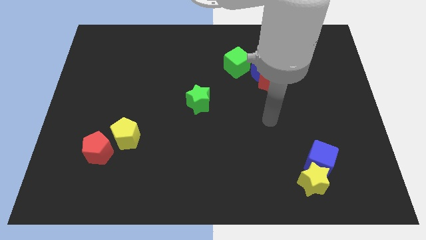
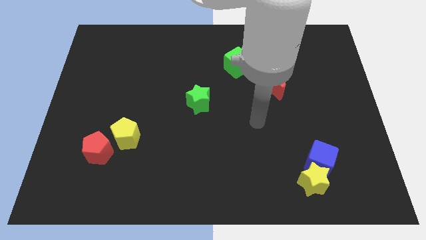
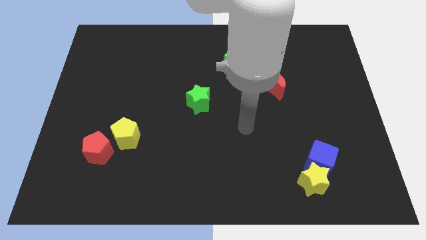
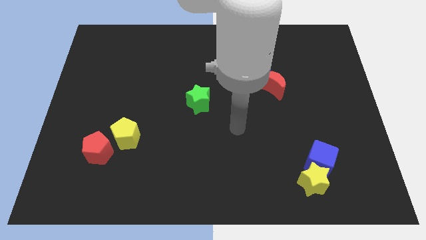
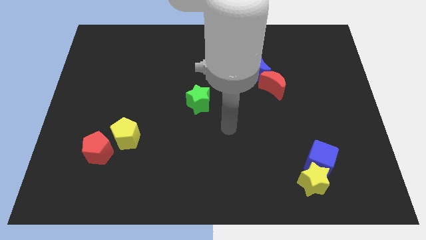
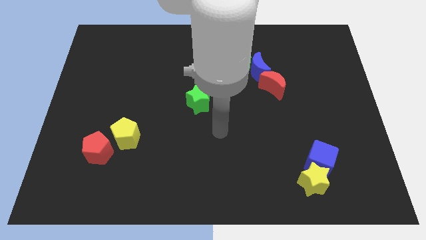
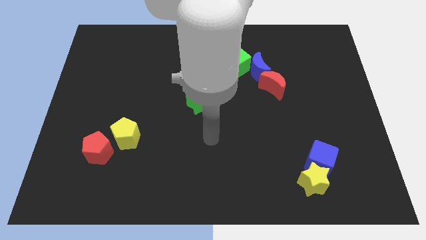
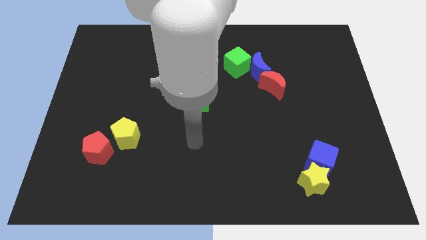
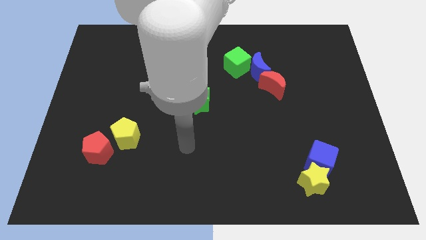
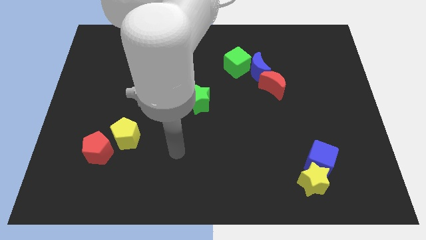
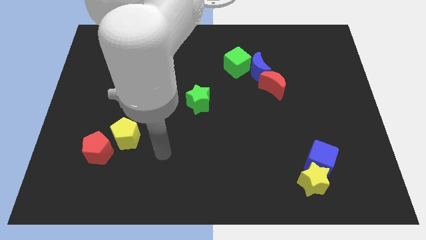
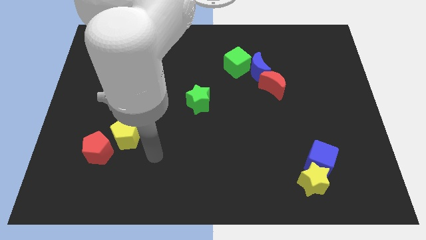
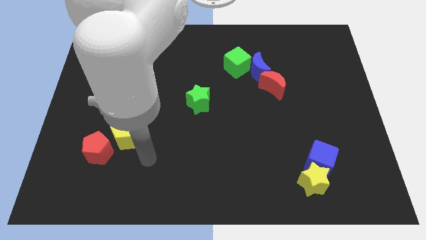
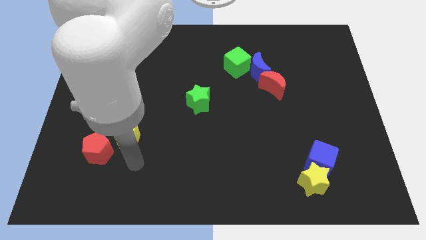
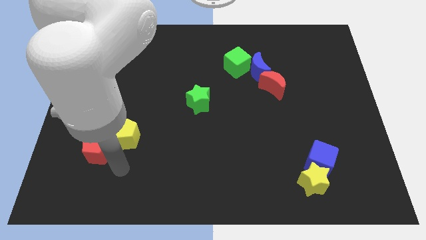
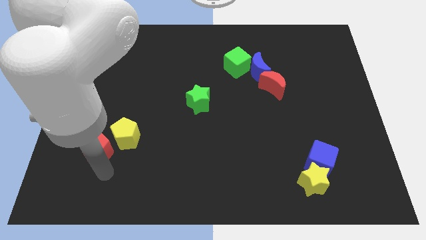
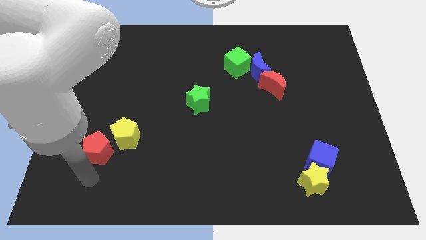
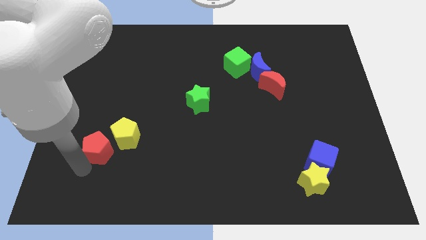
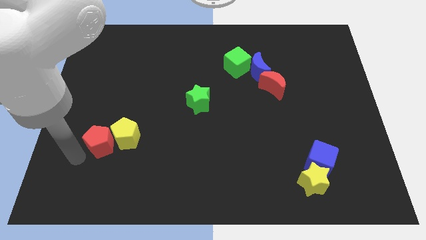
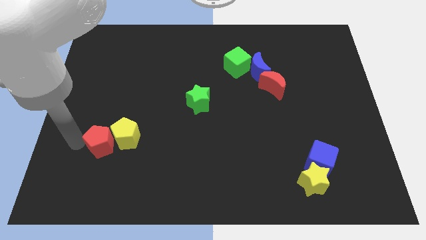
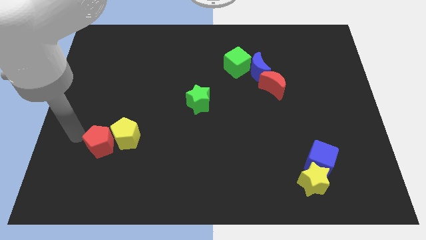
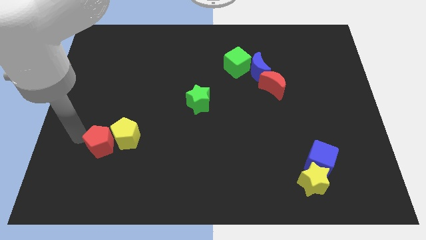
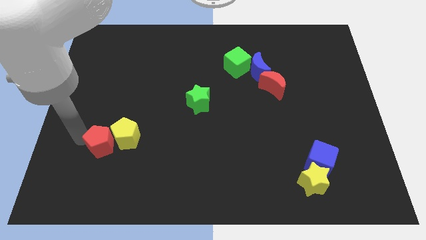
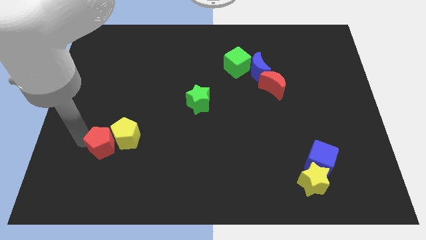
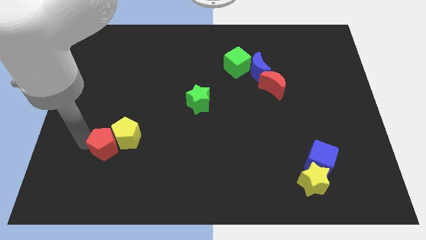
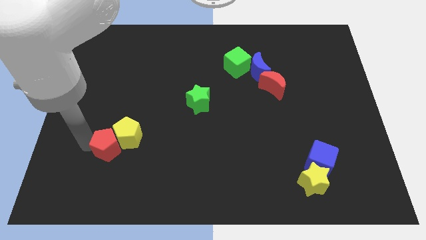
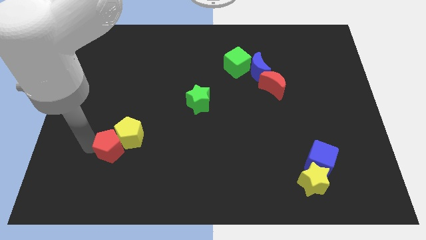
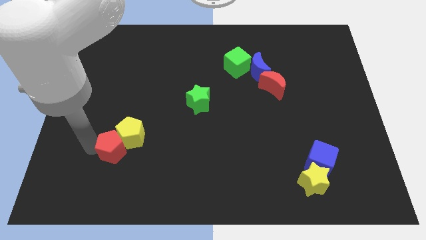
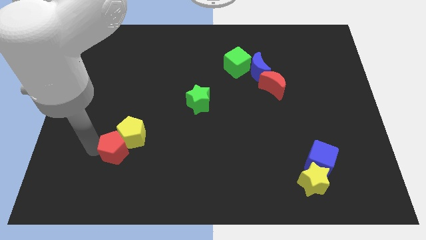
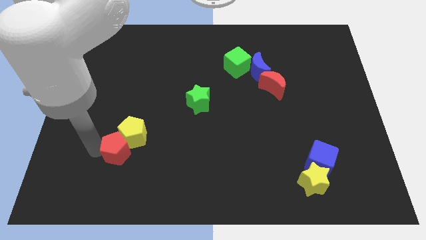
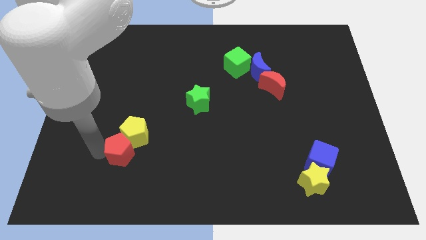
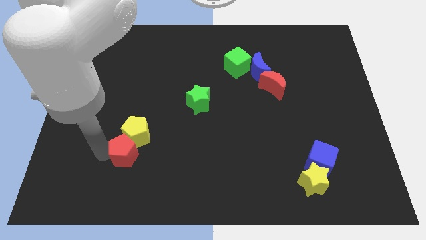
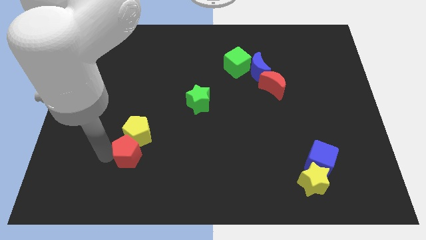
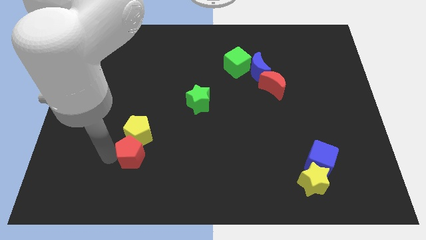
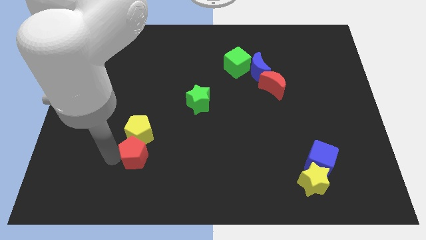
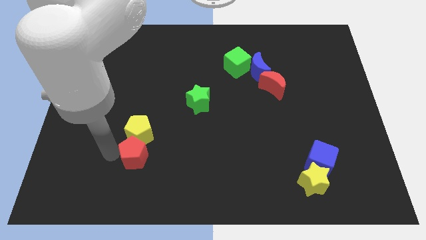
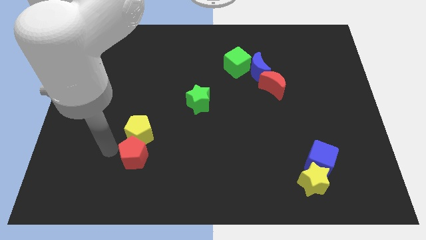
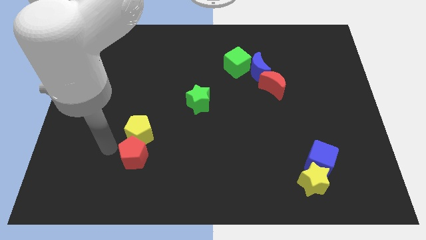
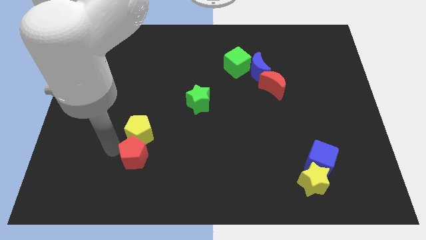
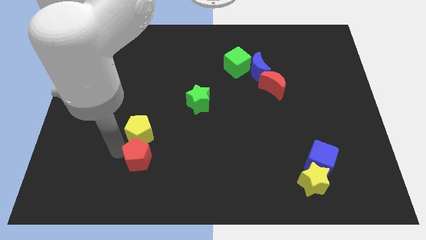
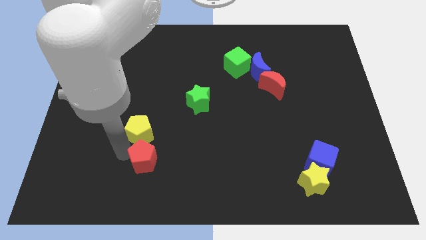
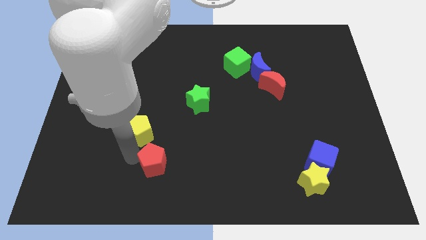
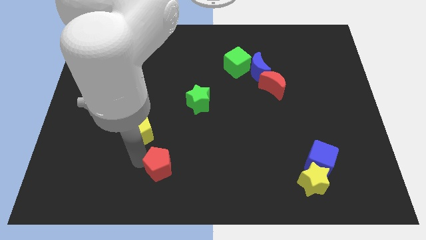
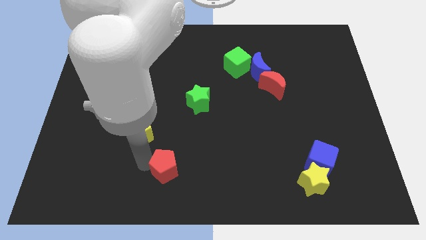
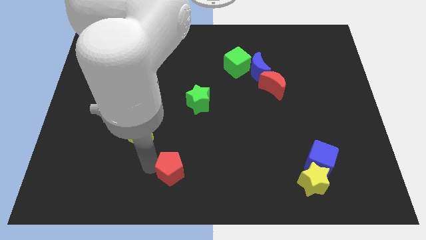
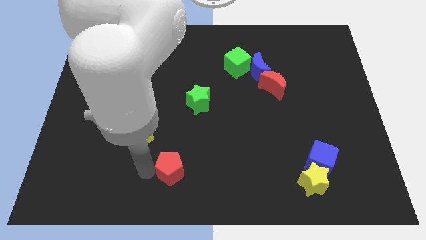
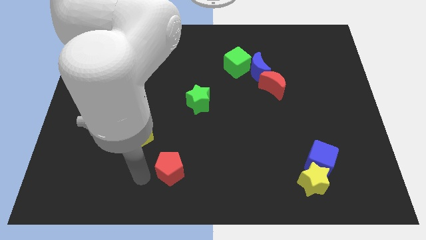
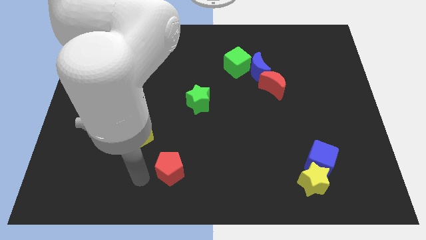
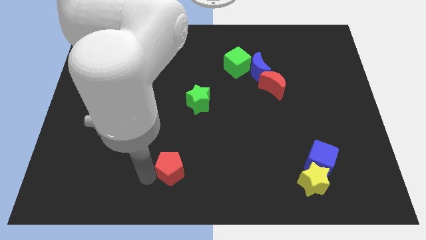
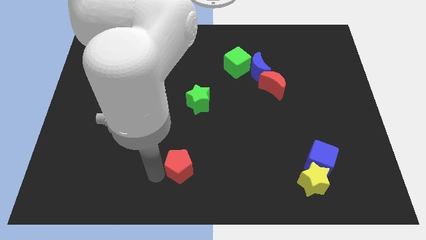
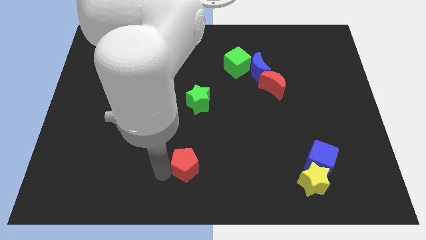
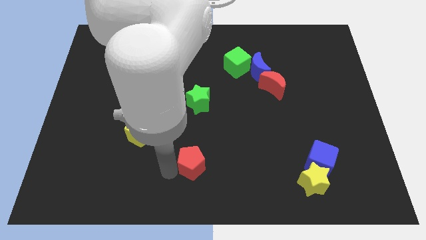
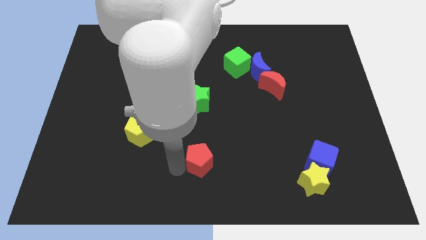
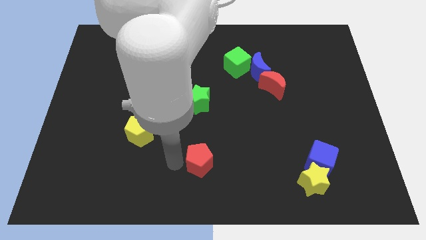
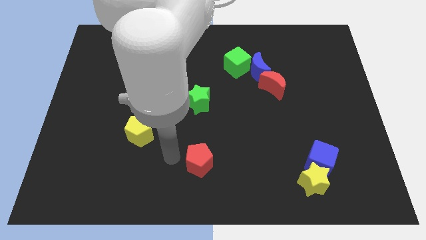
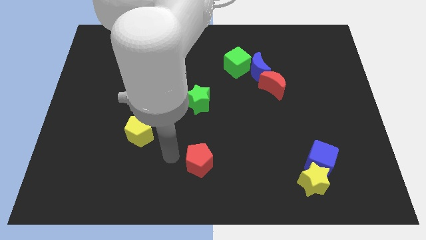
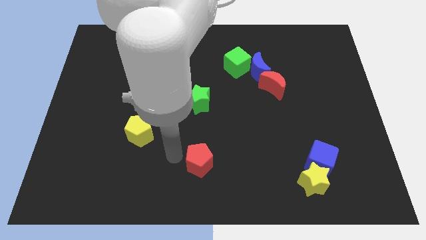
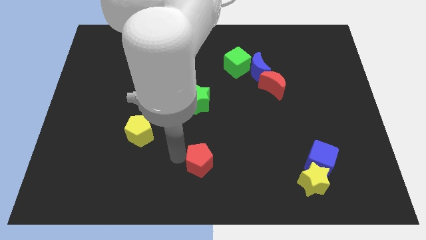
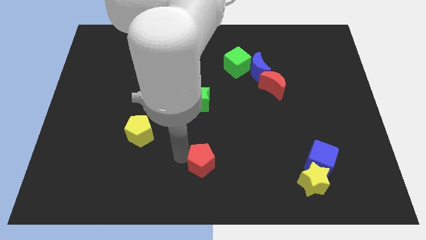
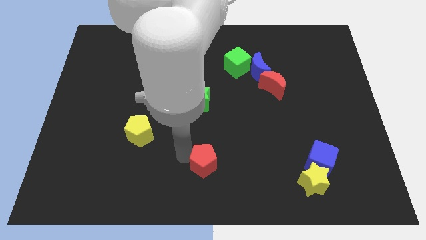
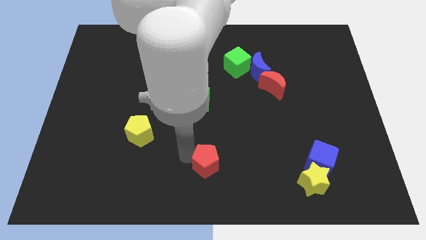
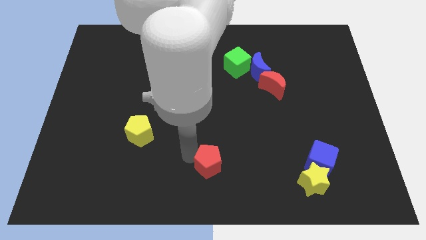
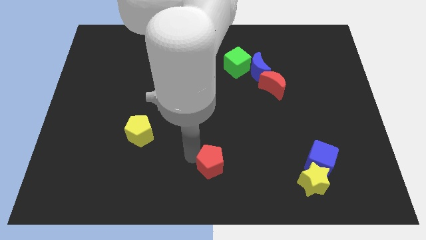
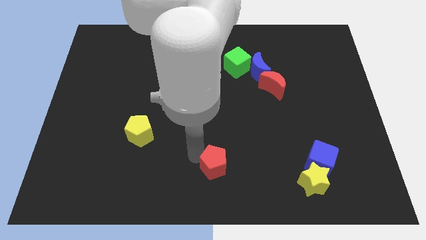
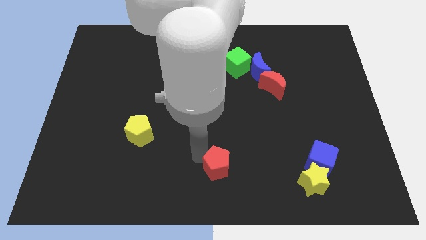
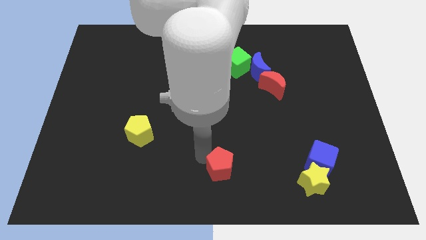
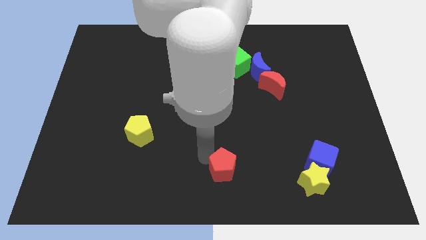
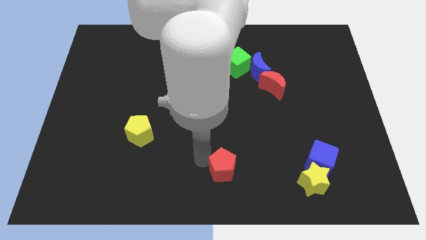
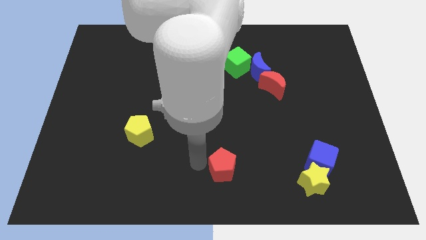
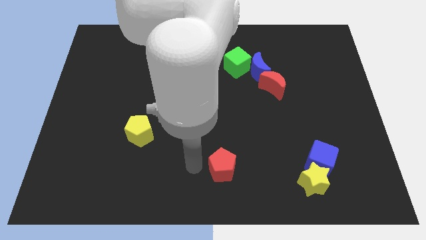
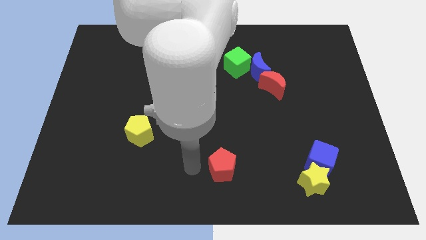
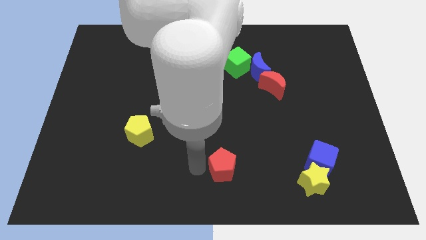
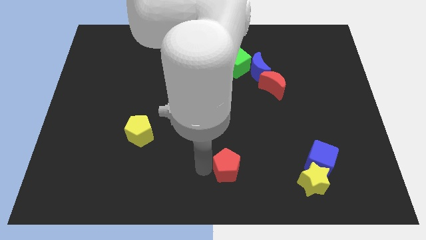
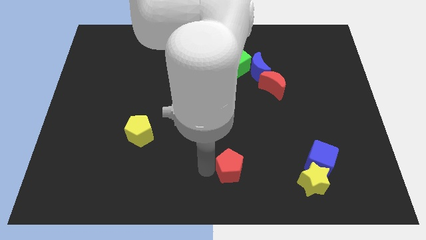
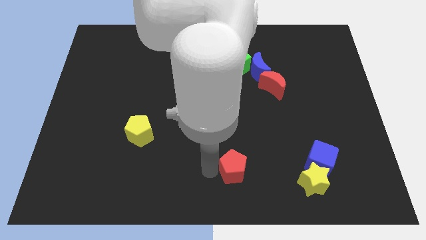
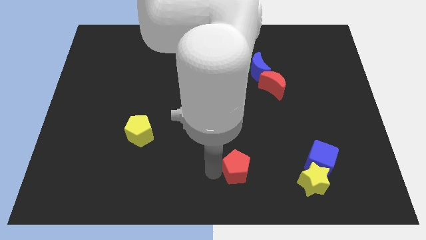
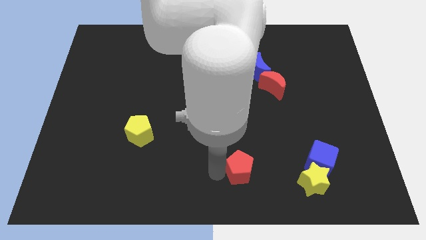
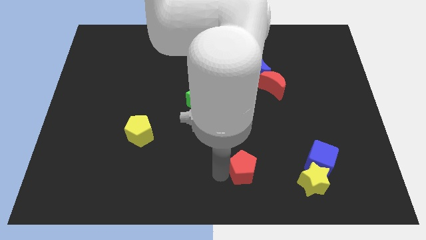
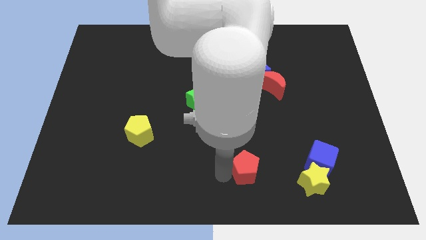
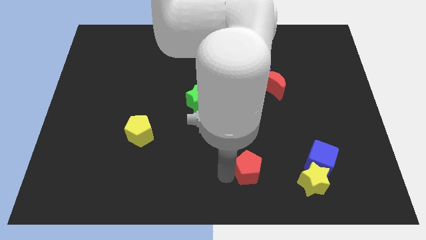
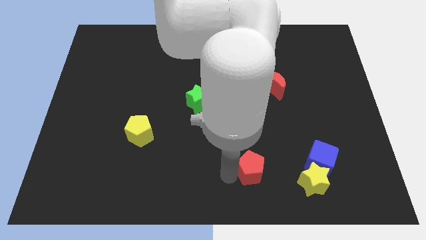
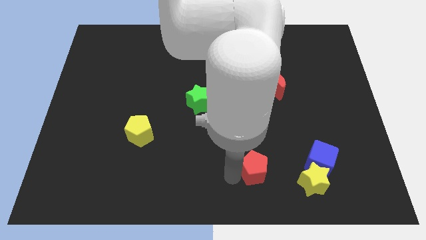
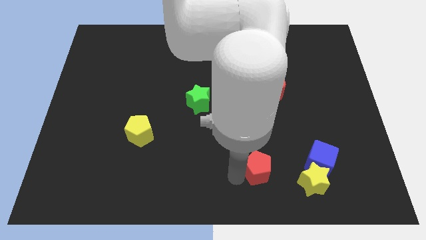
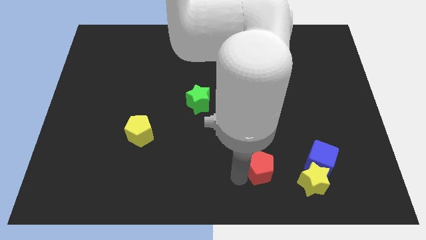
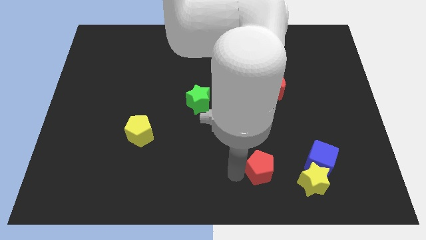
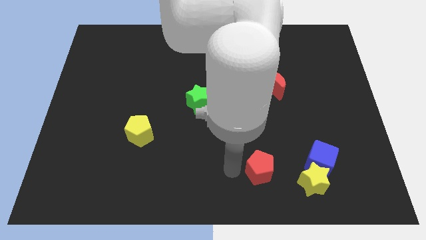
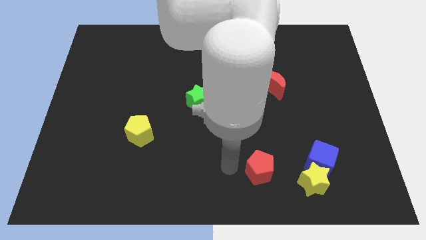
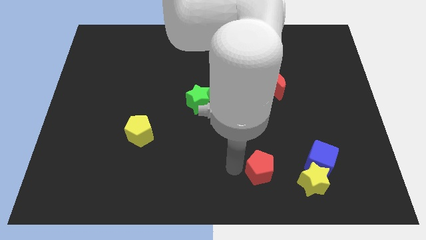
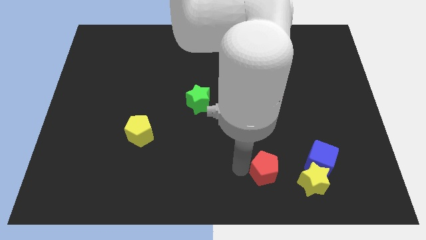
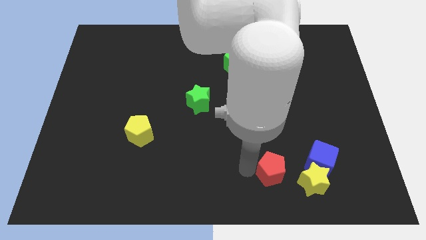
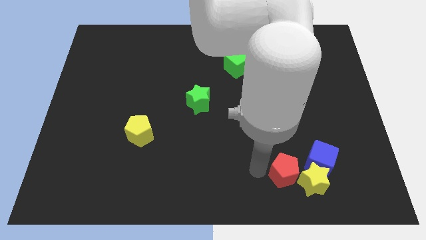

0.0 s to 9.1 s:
move the red pentagon close to the yellow star
